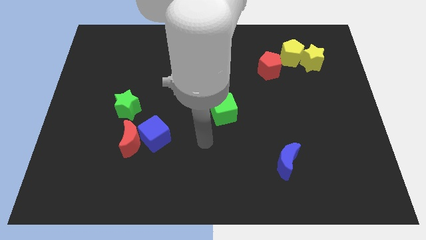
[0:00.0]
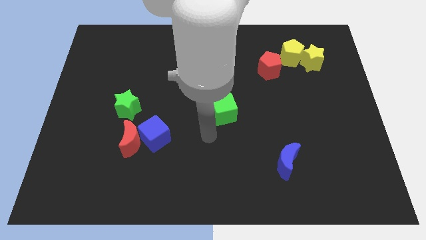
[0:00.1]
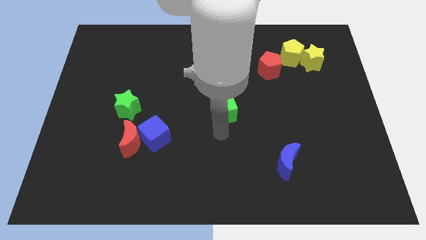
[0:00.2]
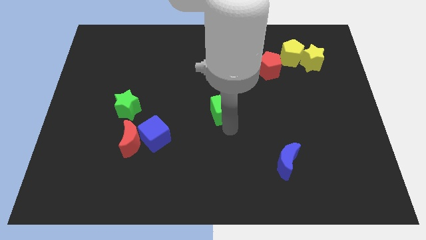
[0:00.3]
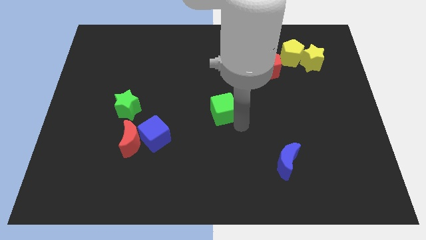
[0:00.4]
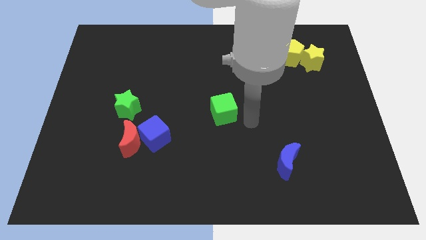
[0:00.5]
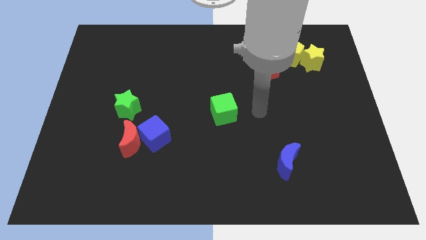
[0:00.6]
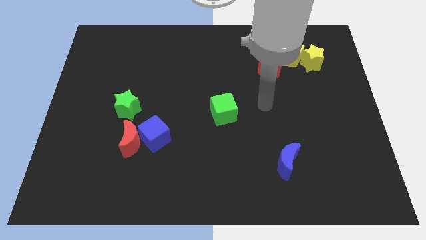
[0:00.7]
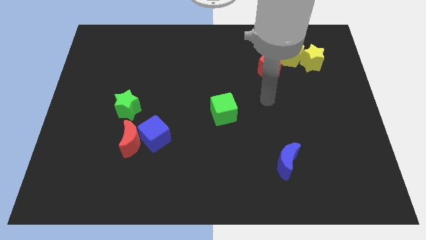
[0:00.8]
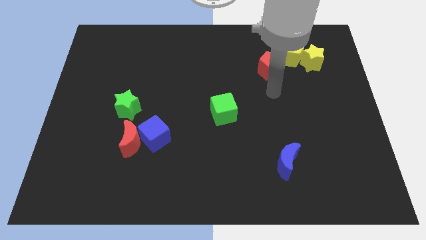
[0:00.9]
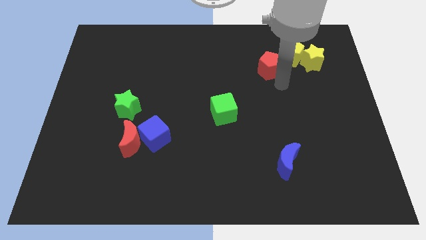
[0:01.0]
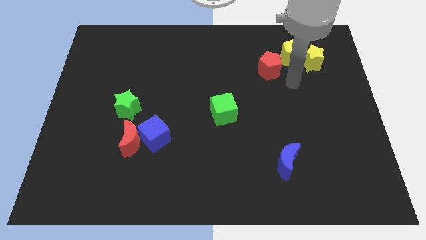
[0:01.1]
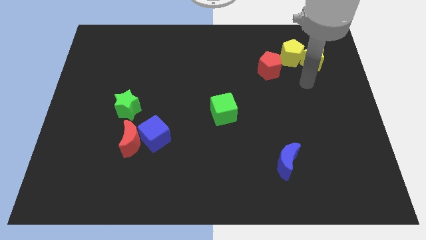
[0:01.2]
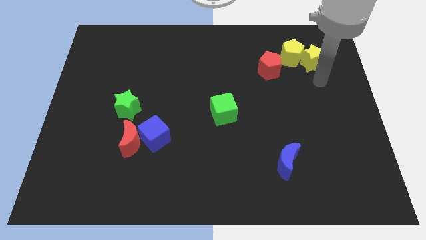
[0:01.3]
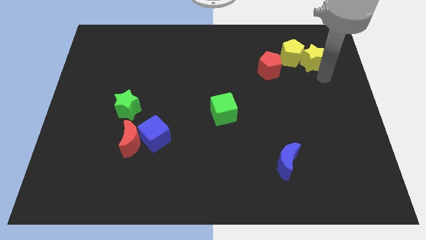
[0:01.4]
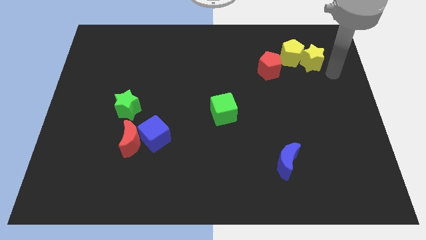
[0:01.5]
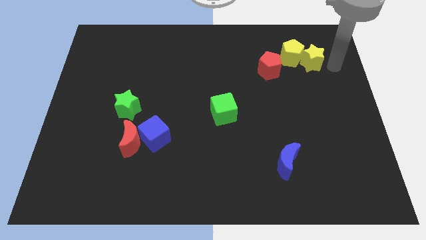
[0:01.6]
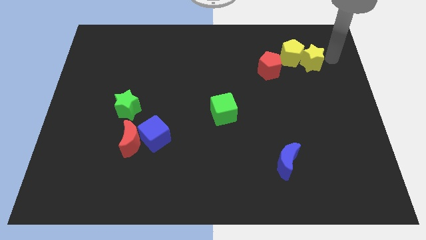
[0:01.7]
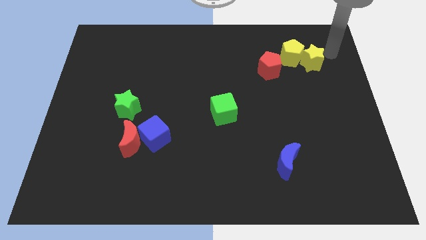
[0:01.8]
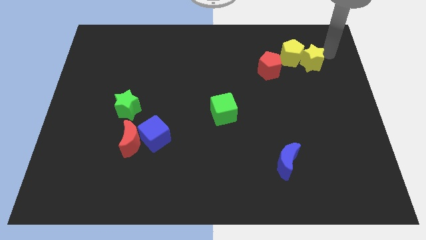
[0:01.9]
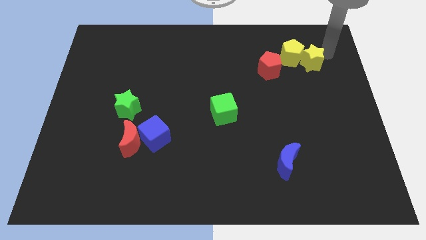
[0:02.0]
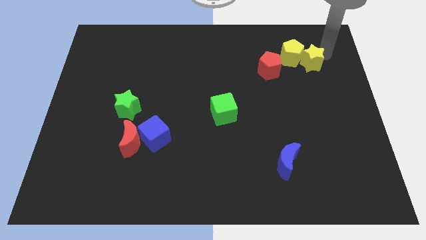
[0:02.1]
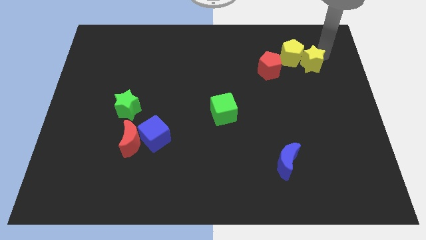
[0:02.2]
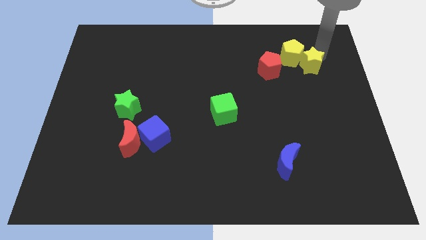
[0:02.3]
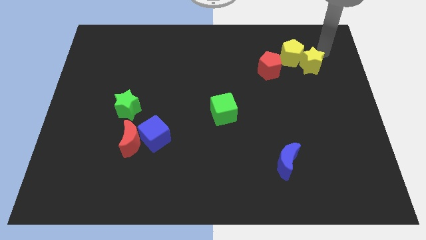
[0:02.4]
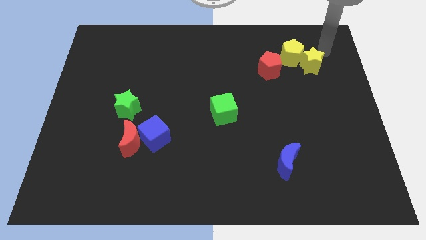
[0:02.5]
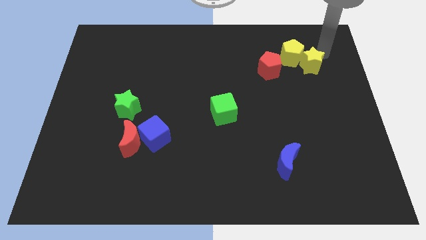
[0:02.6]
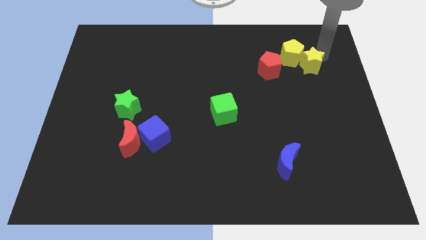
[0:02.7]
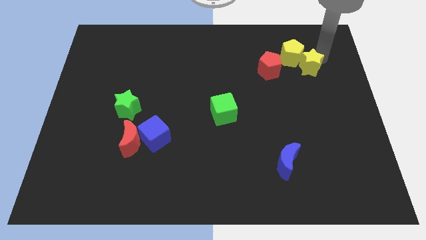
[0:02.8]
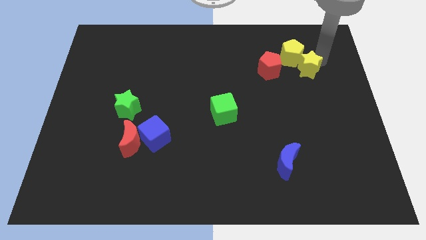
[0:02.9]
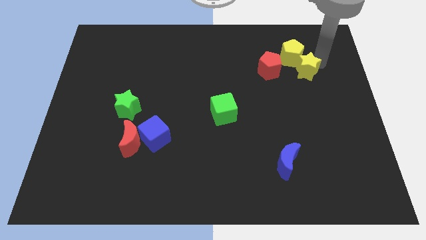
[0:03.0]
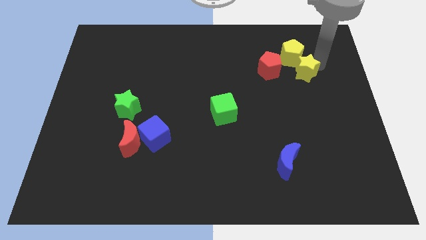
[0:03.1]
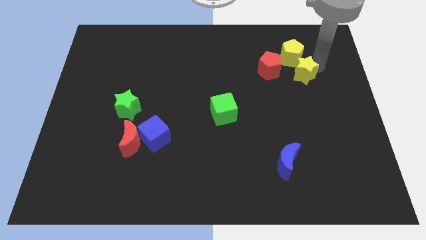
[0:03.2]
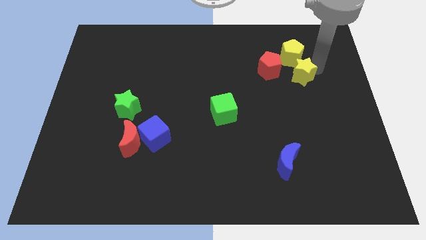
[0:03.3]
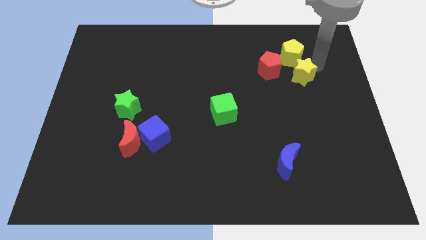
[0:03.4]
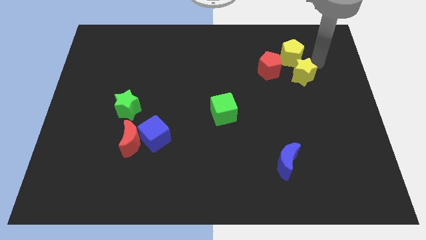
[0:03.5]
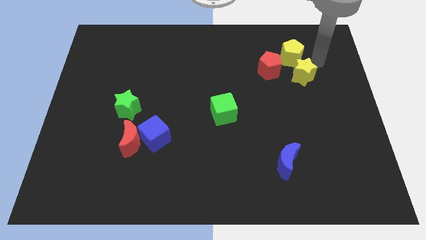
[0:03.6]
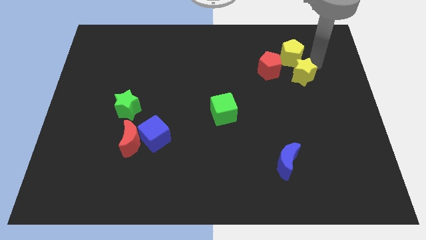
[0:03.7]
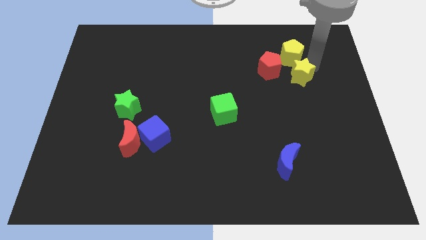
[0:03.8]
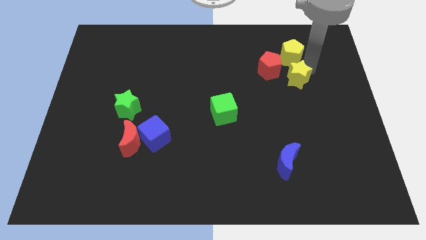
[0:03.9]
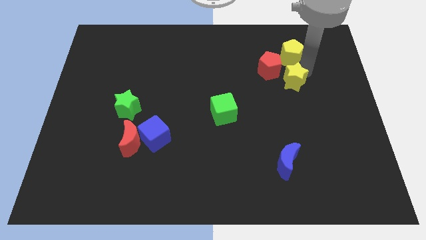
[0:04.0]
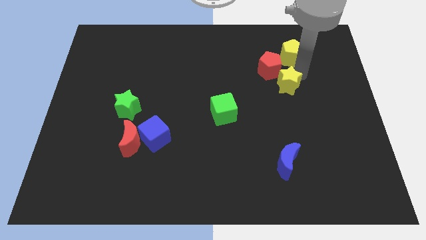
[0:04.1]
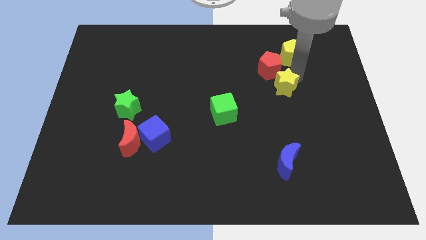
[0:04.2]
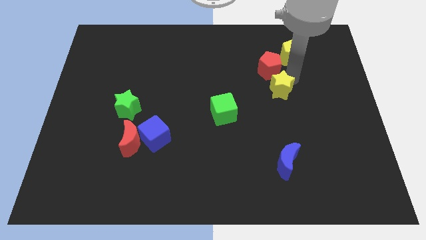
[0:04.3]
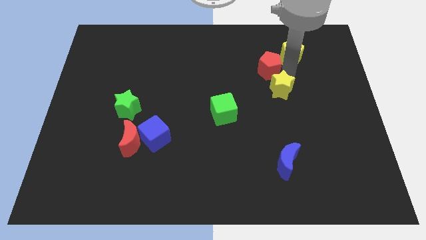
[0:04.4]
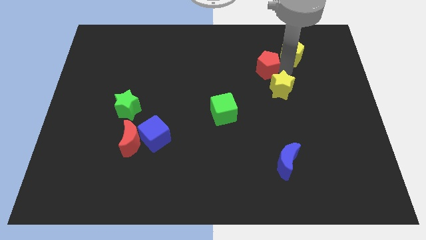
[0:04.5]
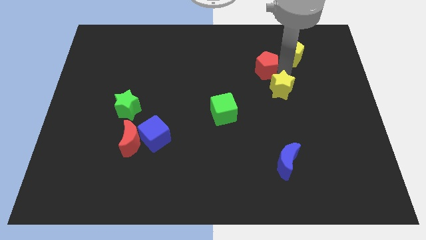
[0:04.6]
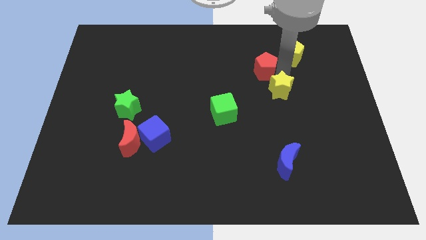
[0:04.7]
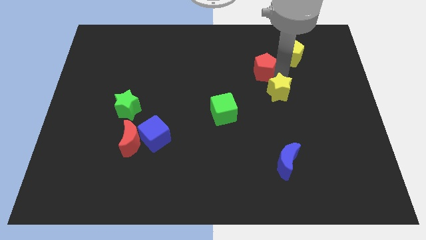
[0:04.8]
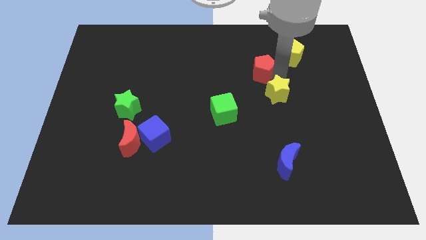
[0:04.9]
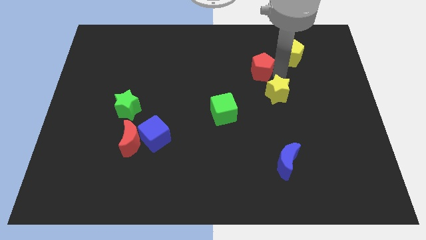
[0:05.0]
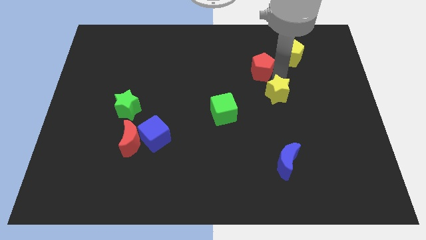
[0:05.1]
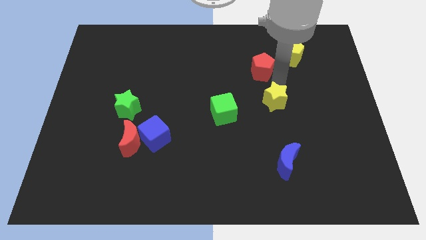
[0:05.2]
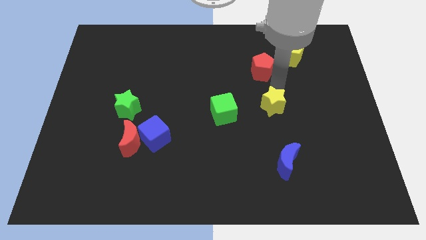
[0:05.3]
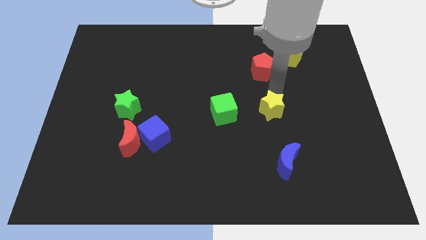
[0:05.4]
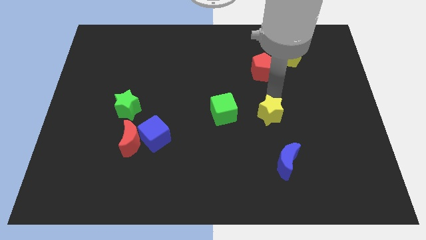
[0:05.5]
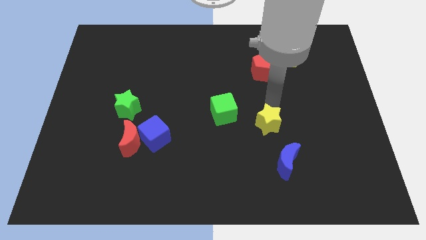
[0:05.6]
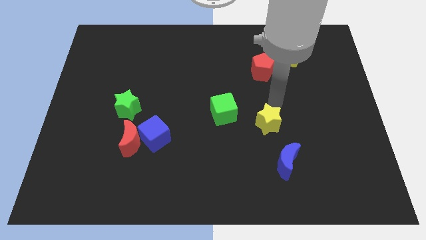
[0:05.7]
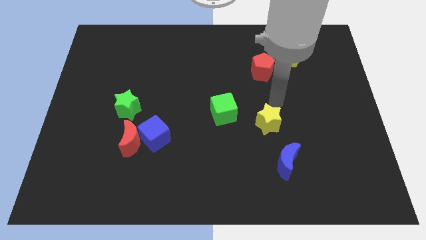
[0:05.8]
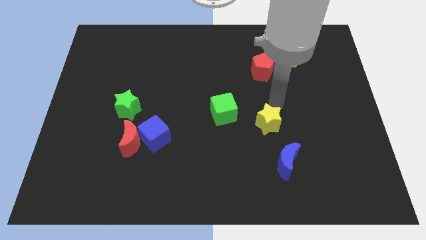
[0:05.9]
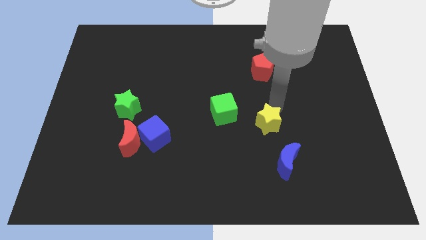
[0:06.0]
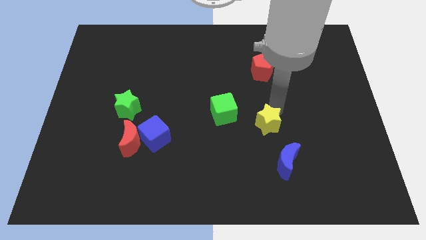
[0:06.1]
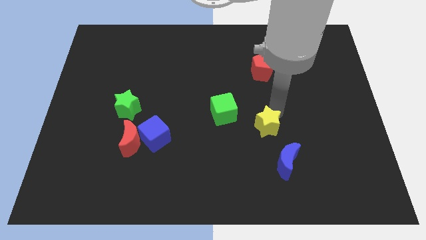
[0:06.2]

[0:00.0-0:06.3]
put the yellow star to the top left of the blue moon
